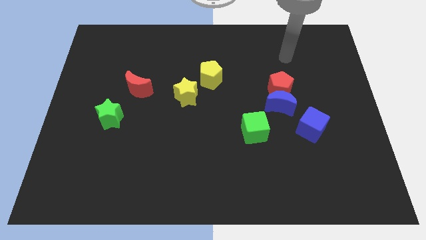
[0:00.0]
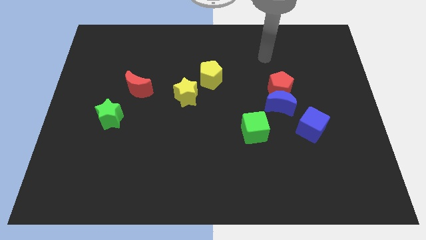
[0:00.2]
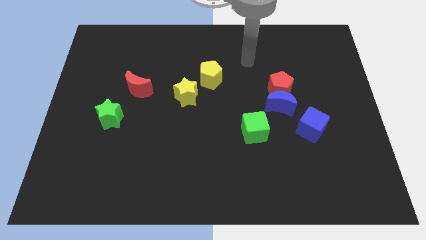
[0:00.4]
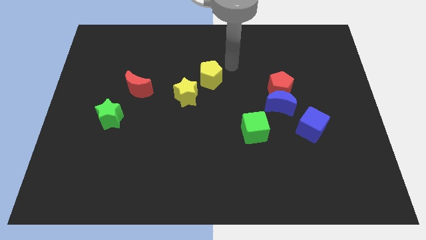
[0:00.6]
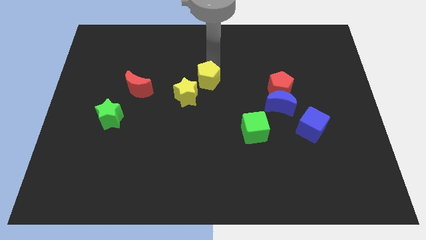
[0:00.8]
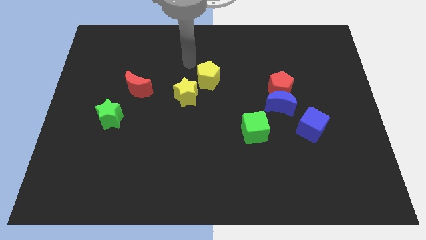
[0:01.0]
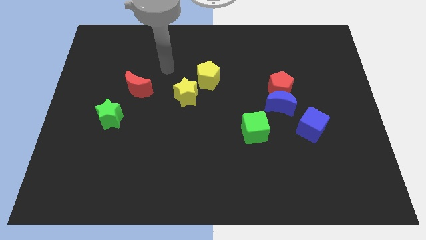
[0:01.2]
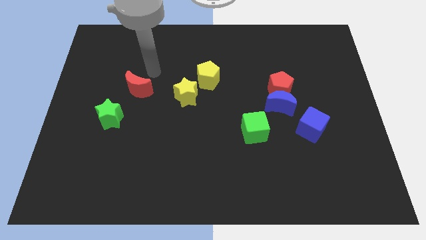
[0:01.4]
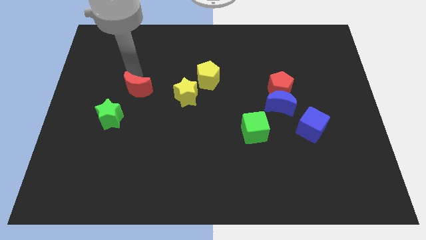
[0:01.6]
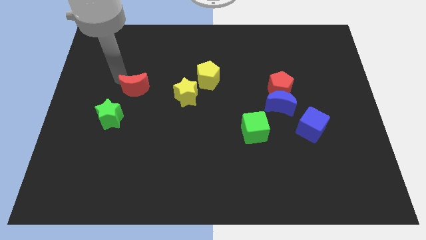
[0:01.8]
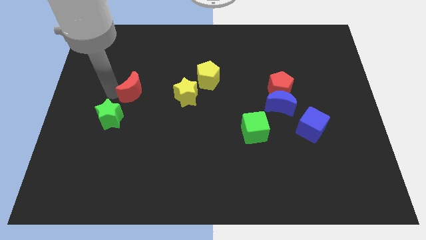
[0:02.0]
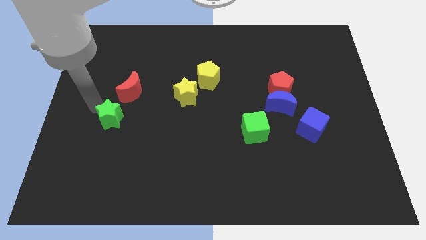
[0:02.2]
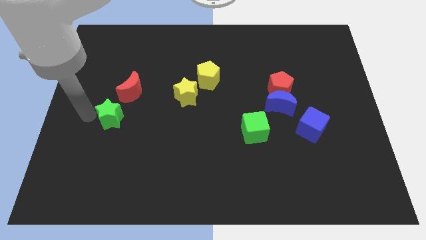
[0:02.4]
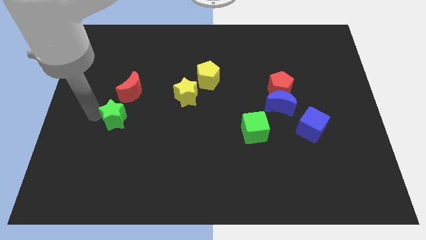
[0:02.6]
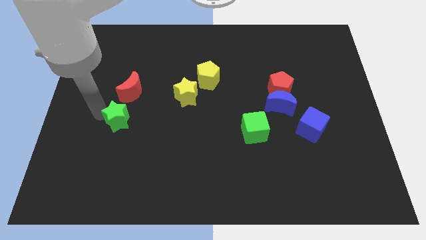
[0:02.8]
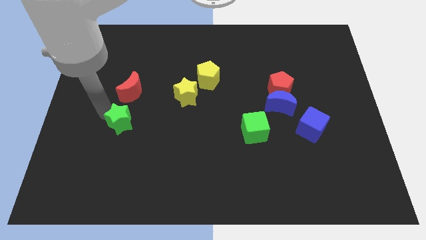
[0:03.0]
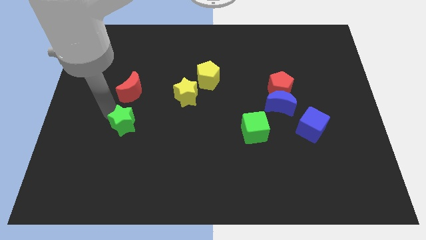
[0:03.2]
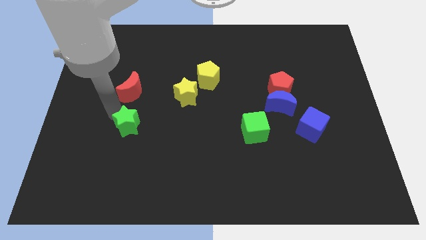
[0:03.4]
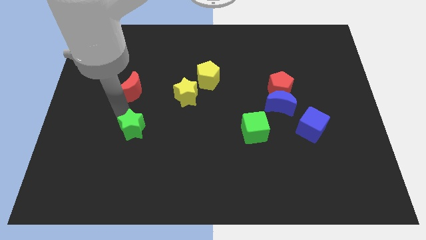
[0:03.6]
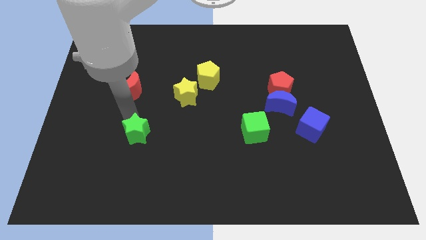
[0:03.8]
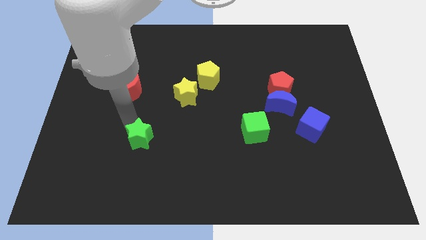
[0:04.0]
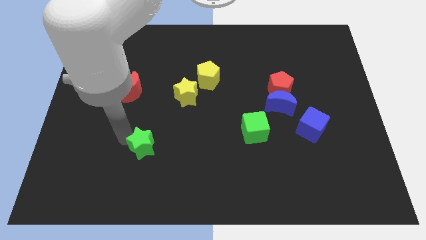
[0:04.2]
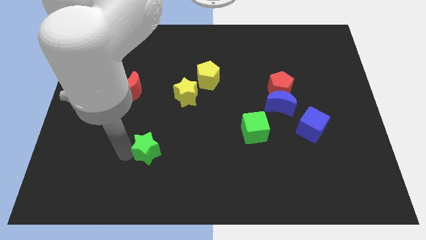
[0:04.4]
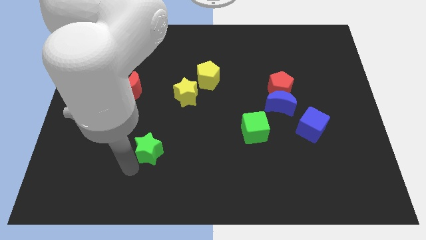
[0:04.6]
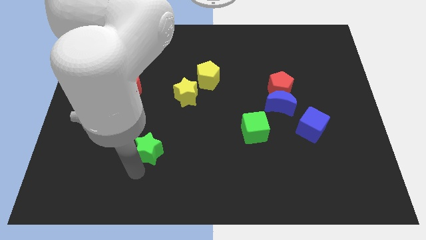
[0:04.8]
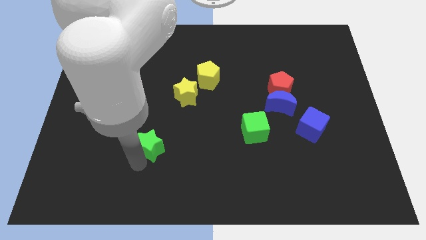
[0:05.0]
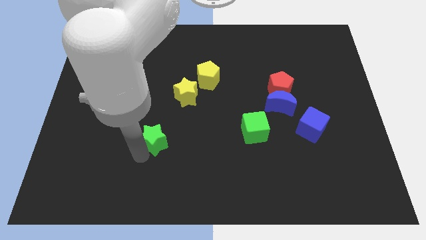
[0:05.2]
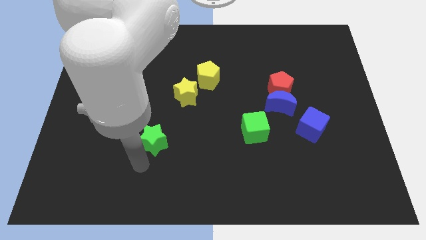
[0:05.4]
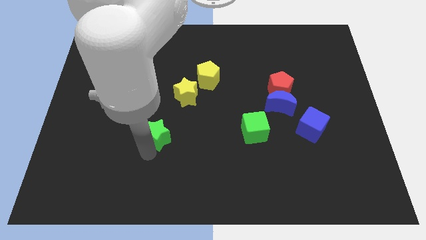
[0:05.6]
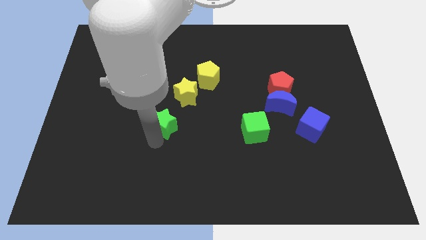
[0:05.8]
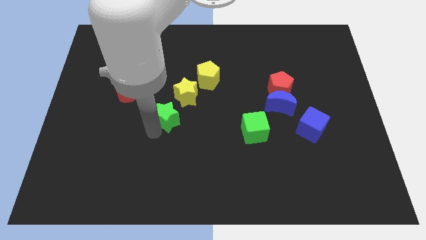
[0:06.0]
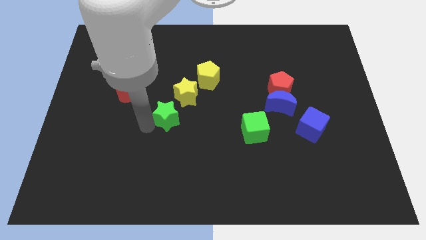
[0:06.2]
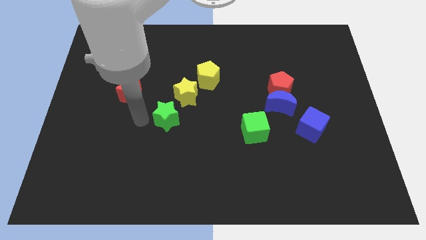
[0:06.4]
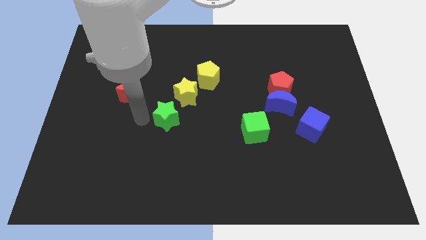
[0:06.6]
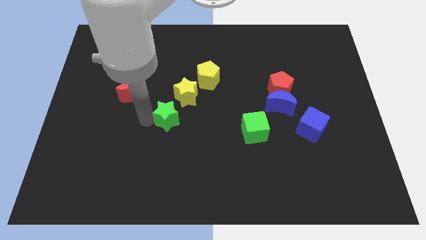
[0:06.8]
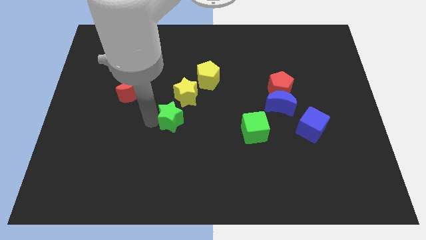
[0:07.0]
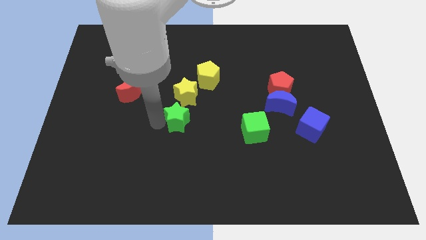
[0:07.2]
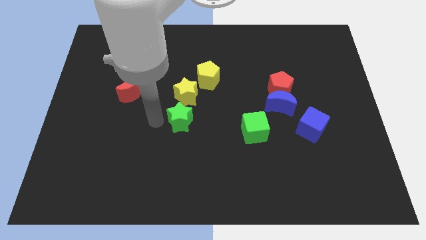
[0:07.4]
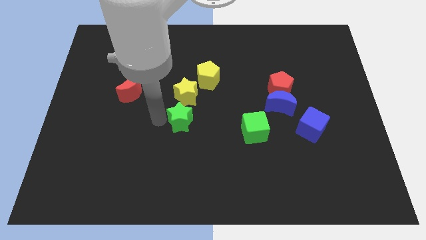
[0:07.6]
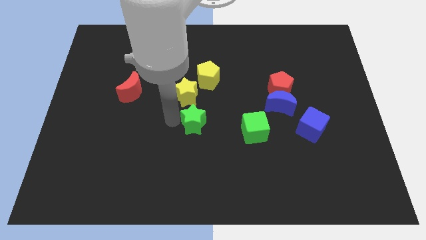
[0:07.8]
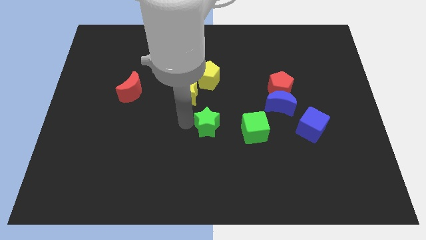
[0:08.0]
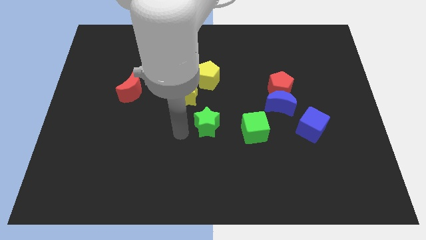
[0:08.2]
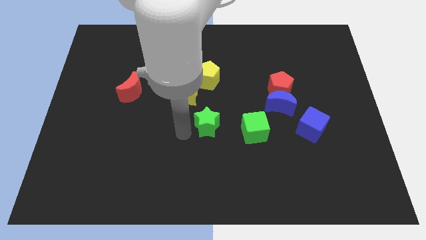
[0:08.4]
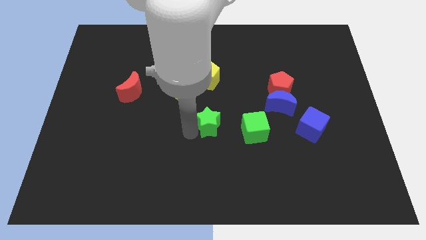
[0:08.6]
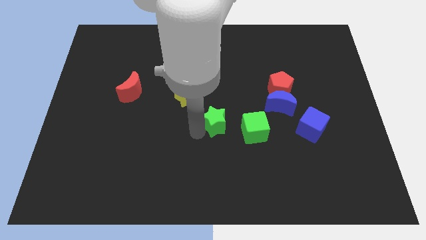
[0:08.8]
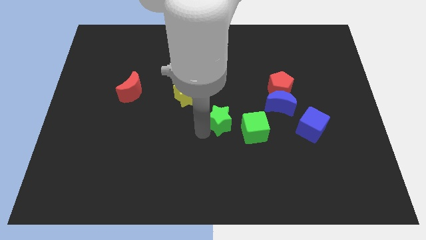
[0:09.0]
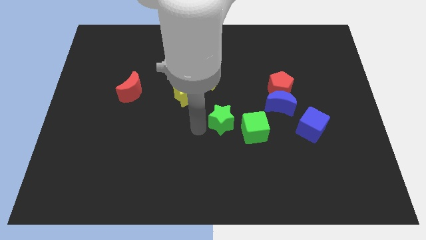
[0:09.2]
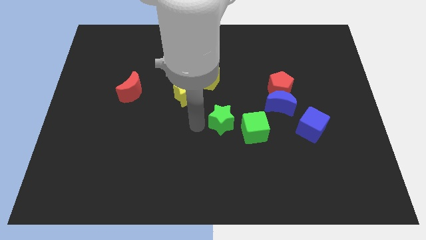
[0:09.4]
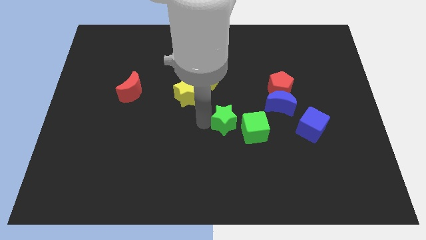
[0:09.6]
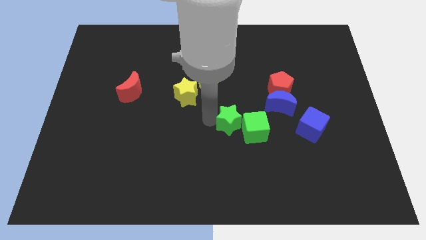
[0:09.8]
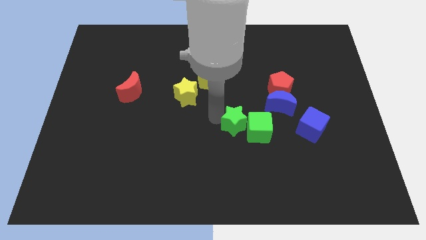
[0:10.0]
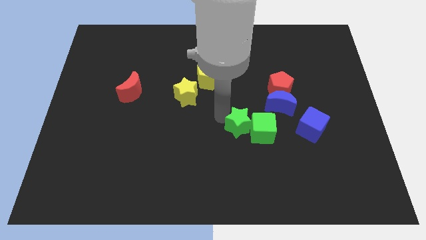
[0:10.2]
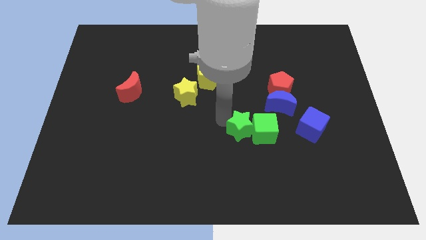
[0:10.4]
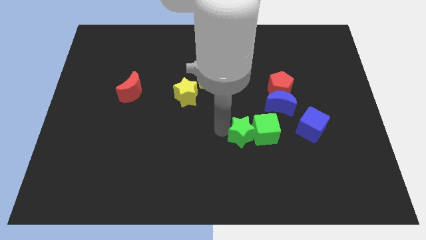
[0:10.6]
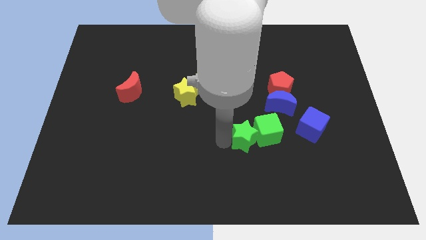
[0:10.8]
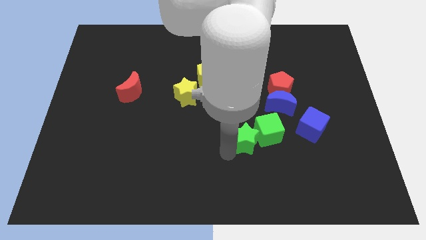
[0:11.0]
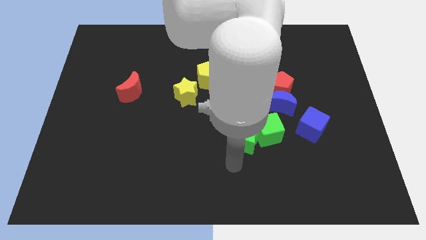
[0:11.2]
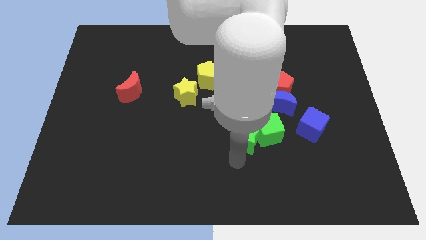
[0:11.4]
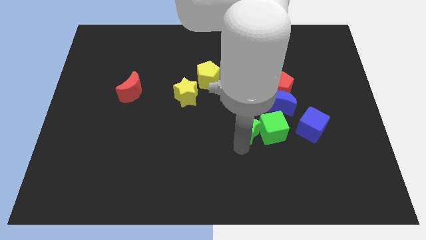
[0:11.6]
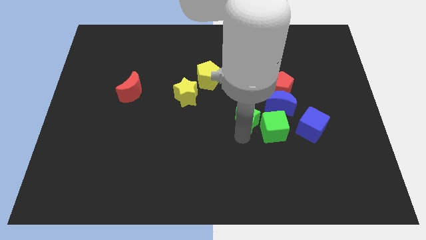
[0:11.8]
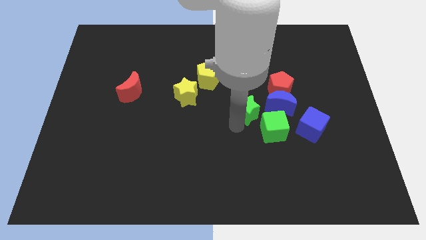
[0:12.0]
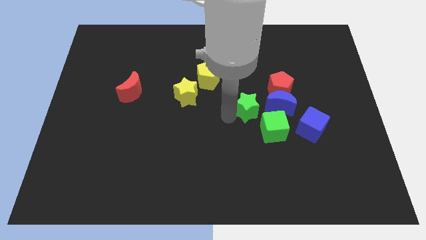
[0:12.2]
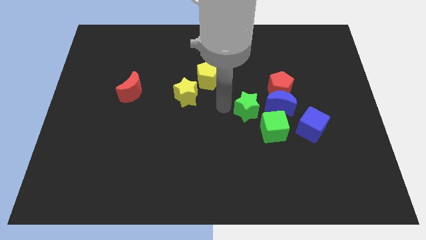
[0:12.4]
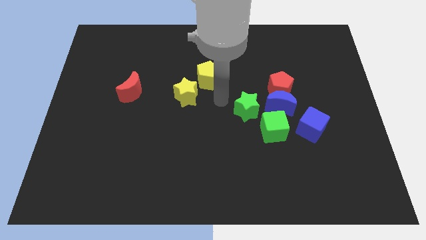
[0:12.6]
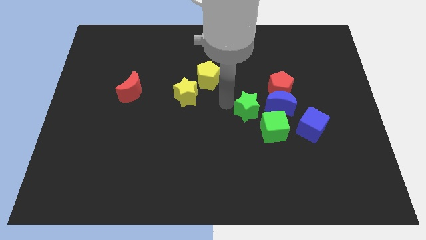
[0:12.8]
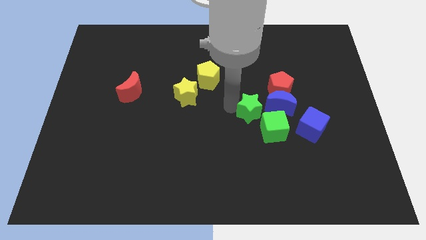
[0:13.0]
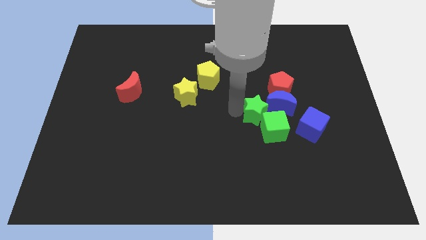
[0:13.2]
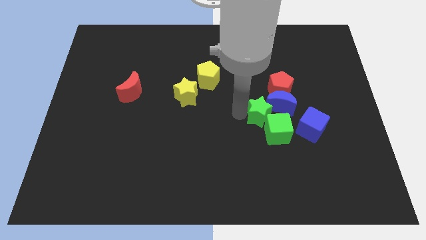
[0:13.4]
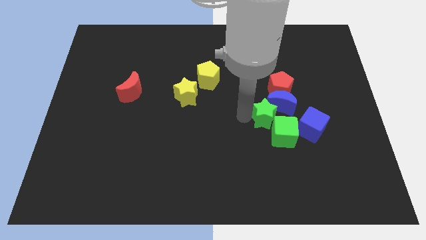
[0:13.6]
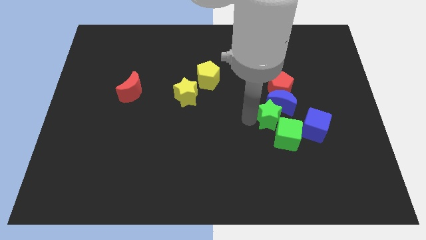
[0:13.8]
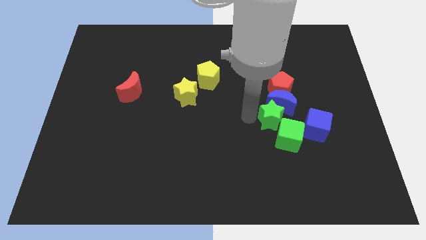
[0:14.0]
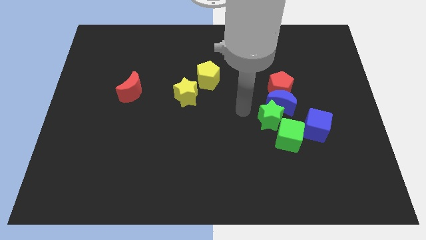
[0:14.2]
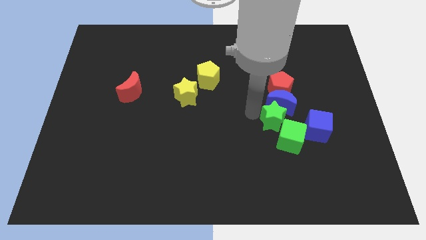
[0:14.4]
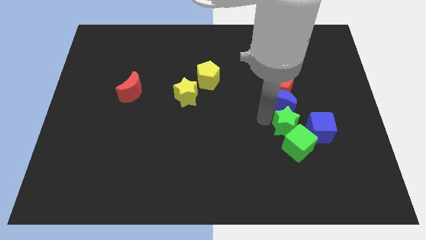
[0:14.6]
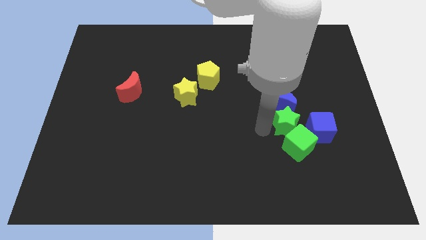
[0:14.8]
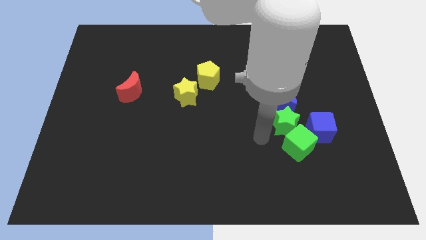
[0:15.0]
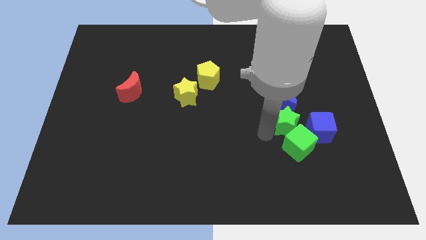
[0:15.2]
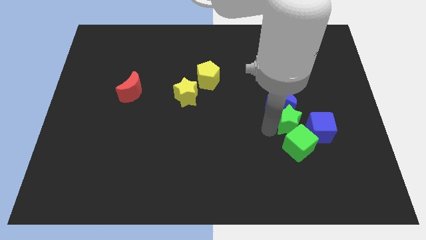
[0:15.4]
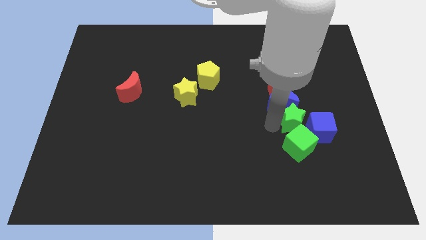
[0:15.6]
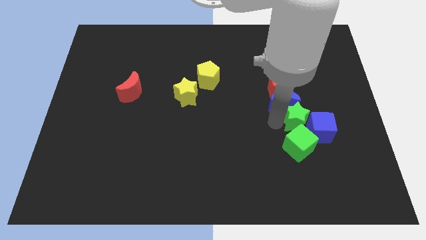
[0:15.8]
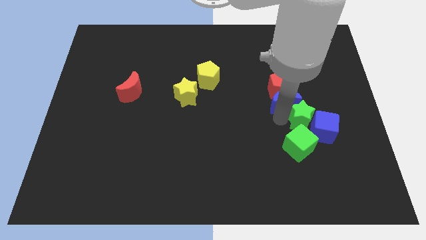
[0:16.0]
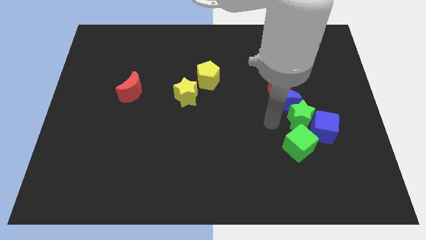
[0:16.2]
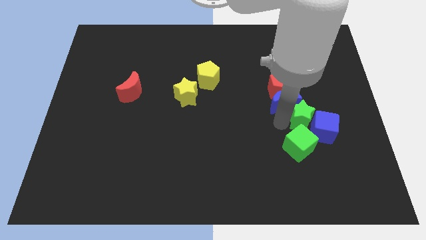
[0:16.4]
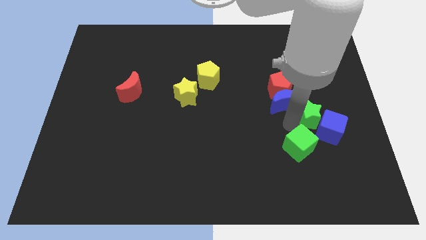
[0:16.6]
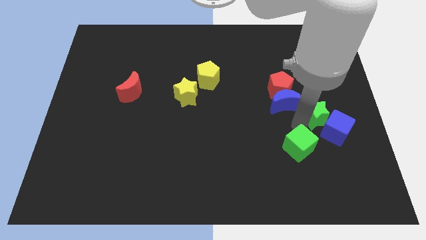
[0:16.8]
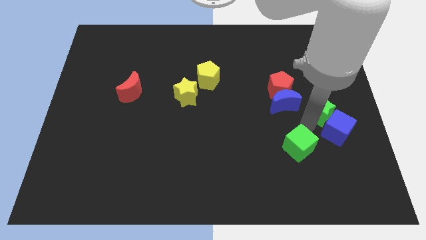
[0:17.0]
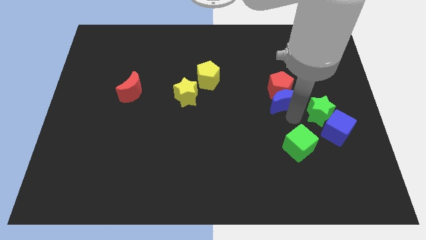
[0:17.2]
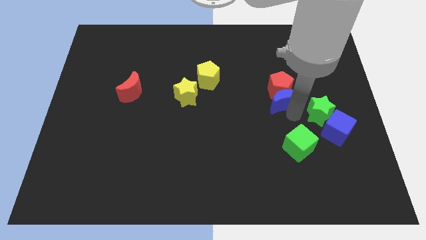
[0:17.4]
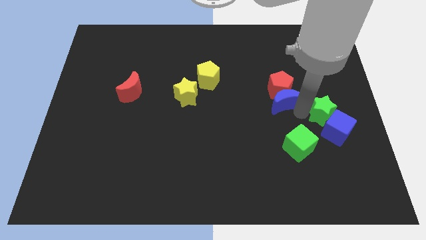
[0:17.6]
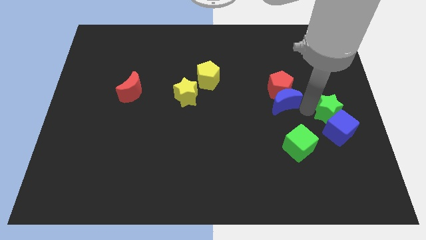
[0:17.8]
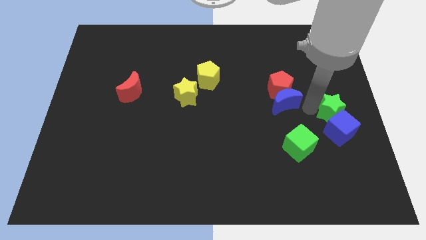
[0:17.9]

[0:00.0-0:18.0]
slide the green star to the top right side of the blue cube
